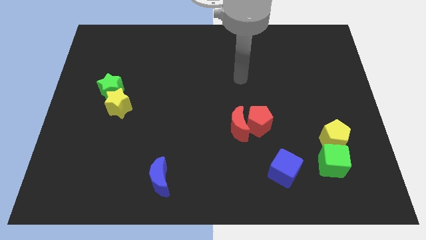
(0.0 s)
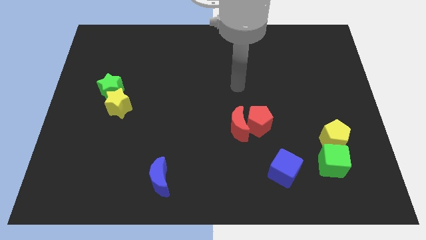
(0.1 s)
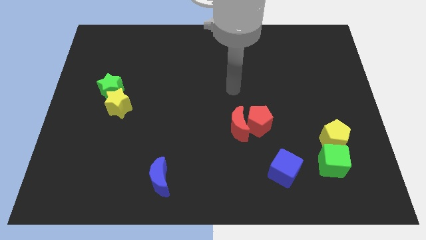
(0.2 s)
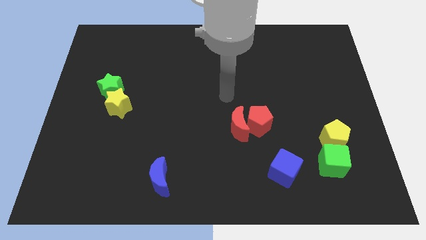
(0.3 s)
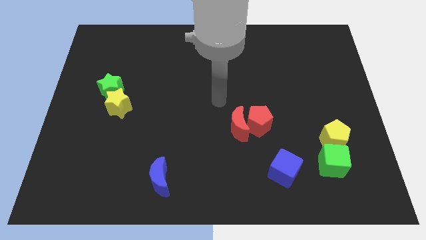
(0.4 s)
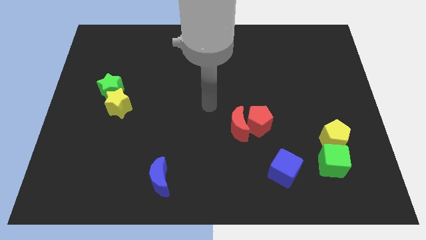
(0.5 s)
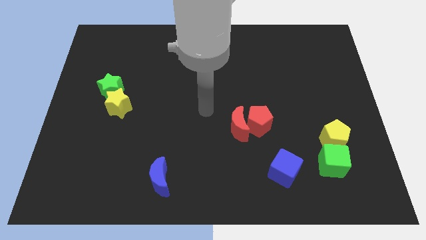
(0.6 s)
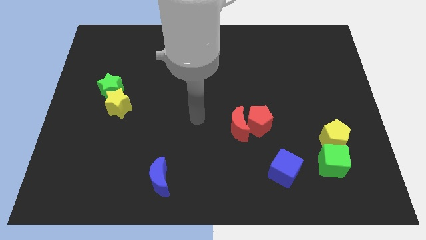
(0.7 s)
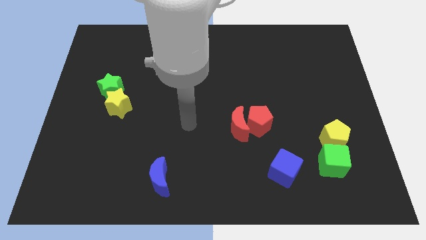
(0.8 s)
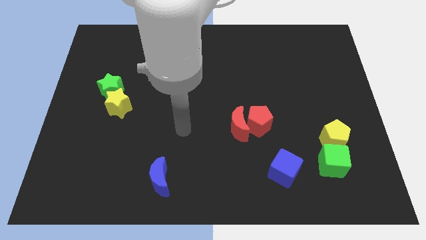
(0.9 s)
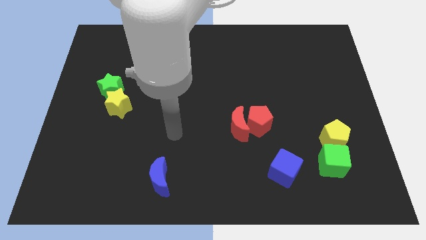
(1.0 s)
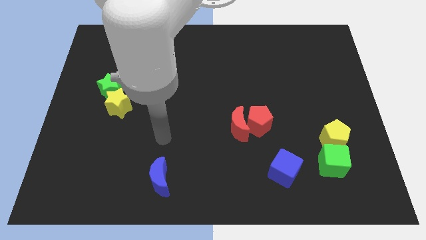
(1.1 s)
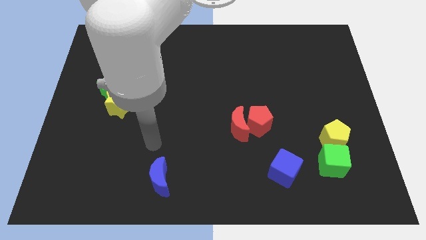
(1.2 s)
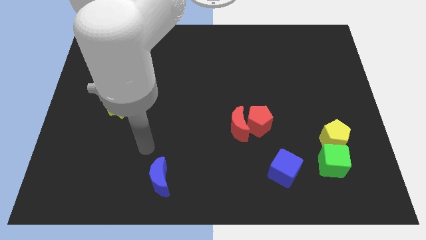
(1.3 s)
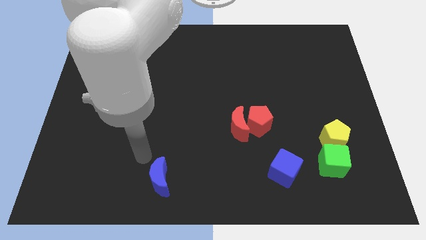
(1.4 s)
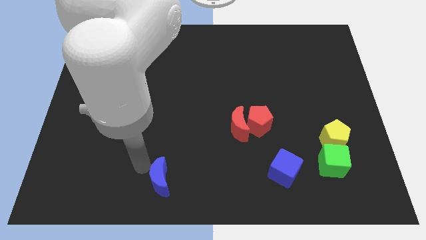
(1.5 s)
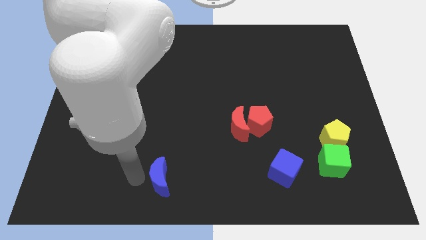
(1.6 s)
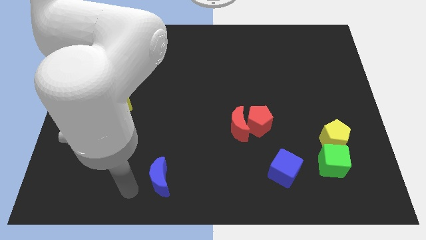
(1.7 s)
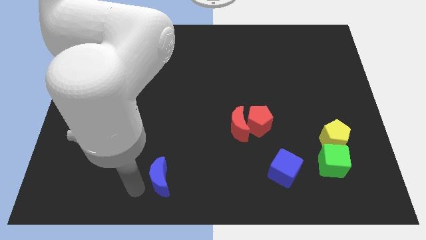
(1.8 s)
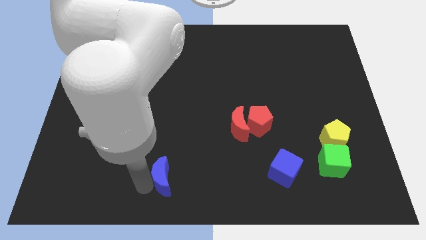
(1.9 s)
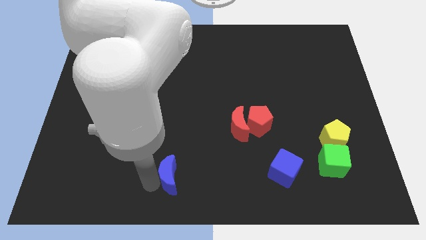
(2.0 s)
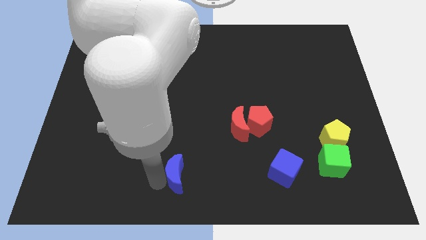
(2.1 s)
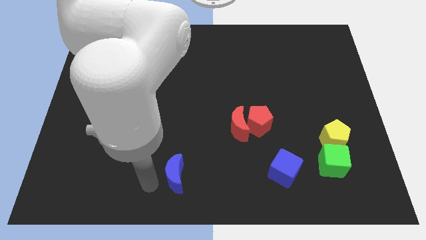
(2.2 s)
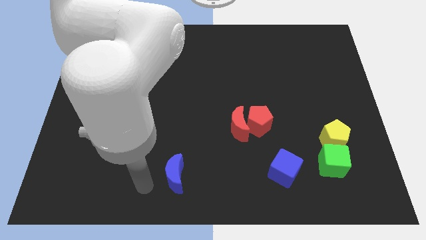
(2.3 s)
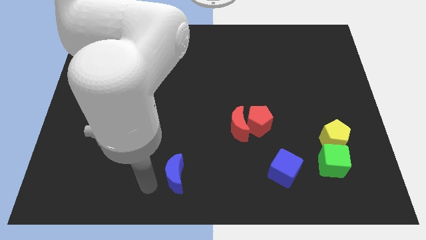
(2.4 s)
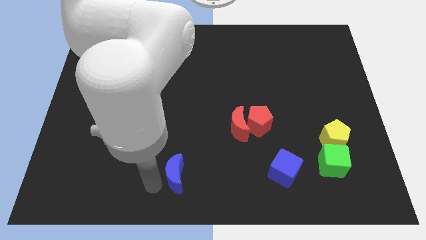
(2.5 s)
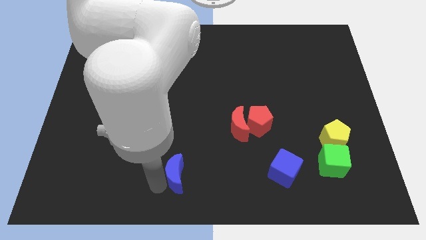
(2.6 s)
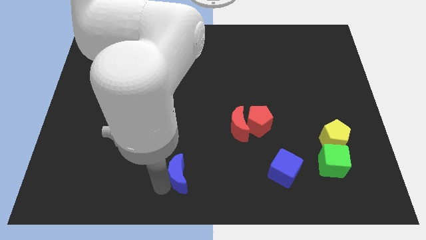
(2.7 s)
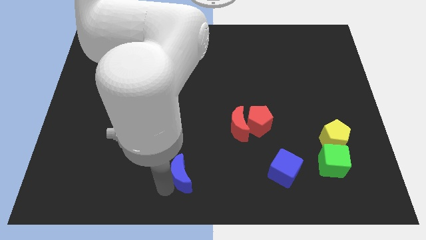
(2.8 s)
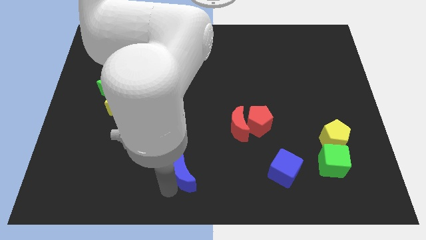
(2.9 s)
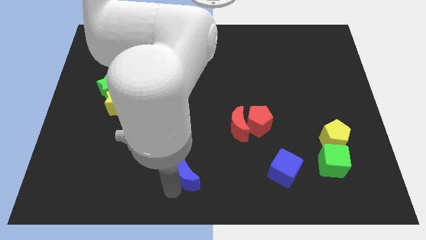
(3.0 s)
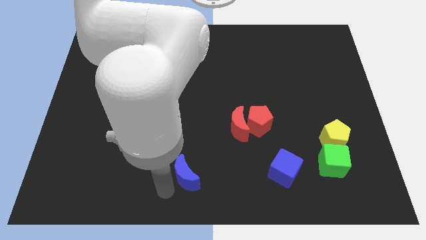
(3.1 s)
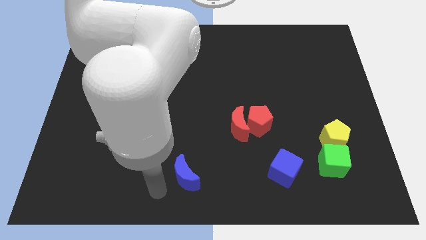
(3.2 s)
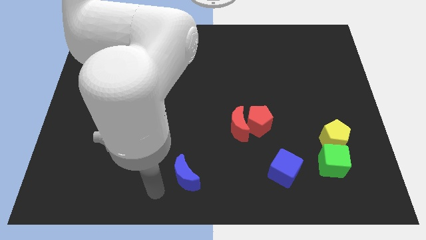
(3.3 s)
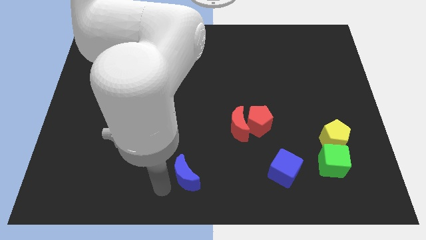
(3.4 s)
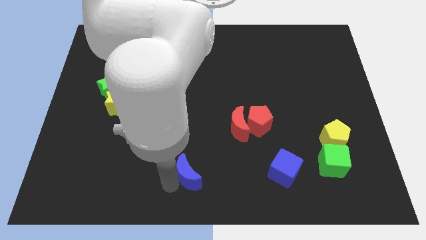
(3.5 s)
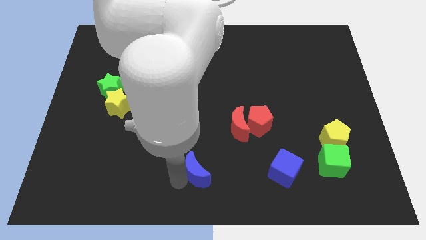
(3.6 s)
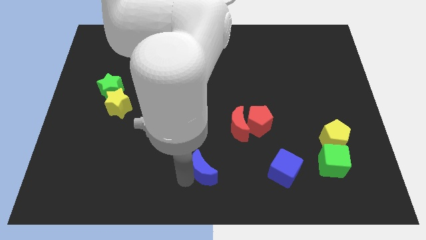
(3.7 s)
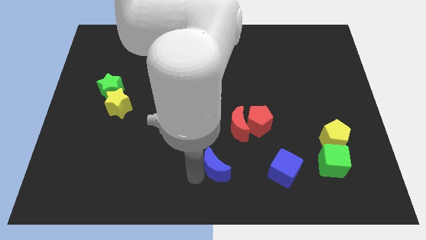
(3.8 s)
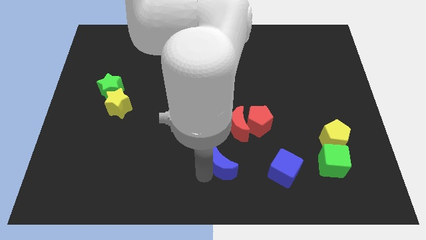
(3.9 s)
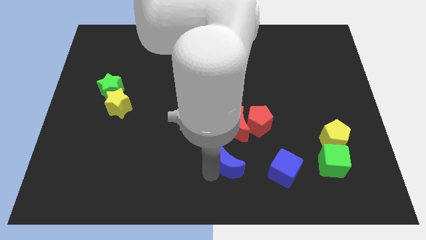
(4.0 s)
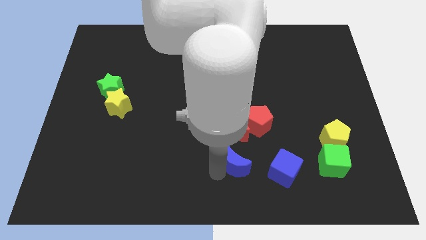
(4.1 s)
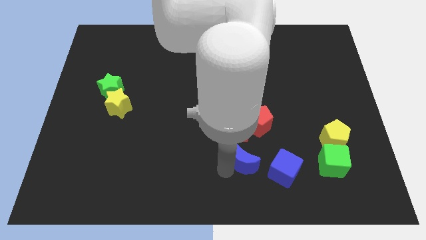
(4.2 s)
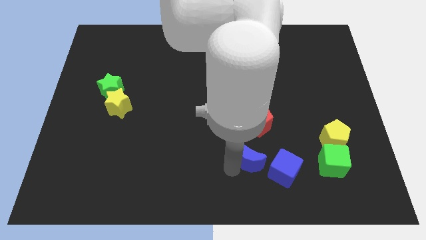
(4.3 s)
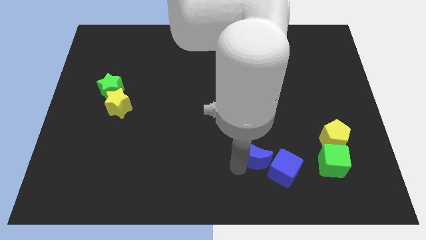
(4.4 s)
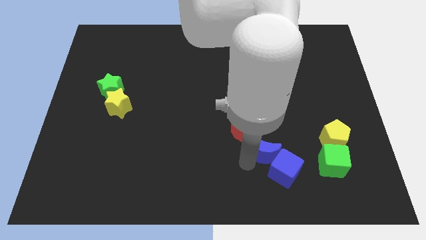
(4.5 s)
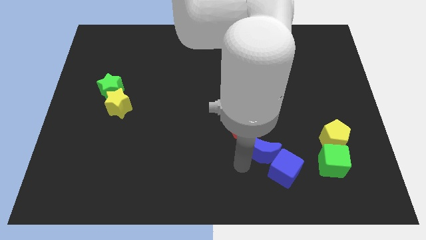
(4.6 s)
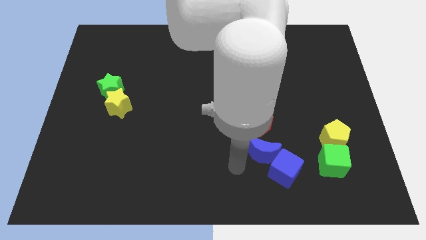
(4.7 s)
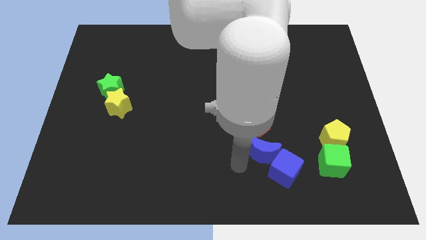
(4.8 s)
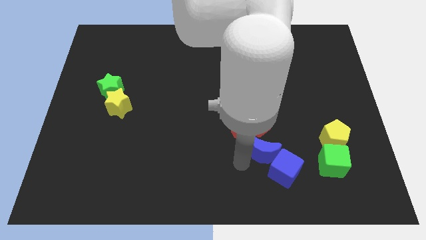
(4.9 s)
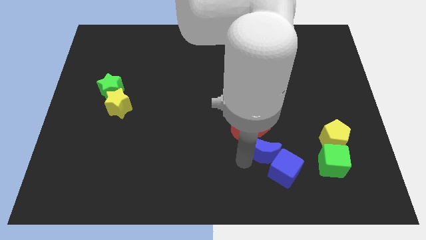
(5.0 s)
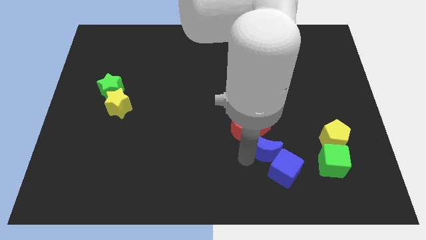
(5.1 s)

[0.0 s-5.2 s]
push the blue moon to the bottom right side of the red pentagon

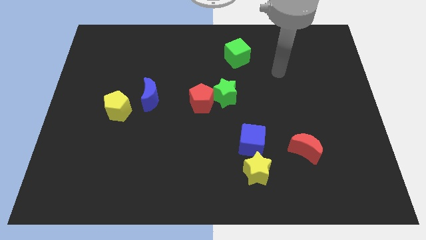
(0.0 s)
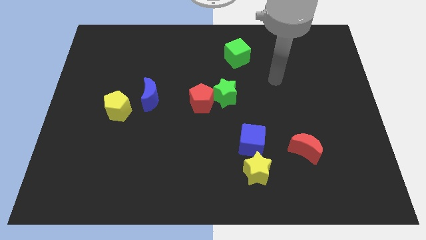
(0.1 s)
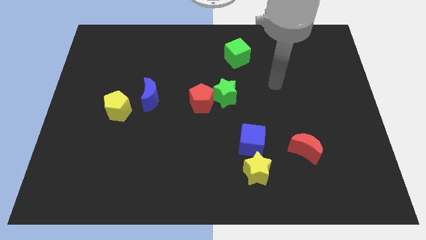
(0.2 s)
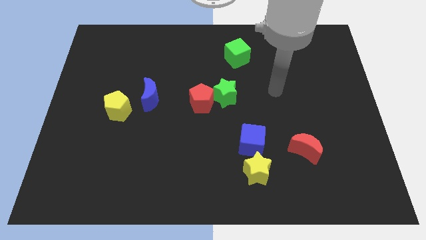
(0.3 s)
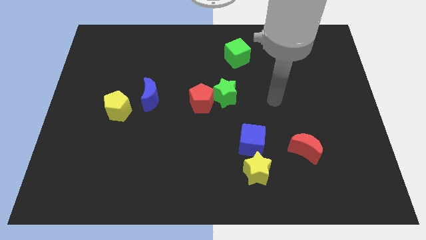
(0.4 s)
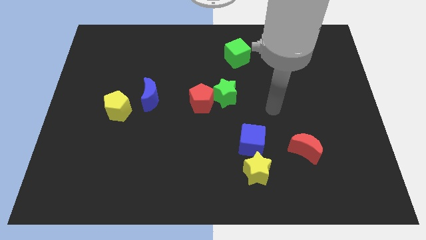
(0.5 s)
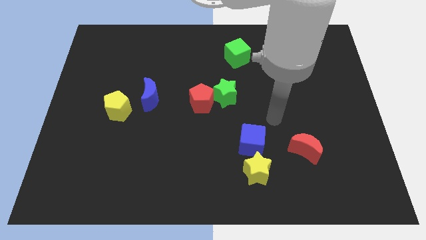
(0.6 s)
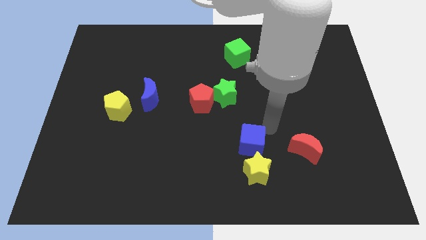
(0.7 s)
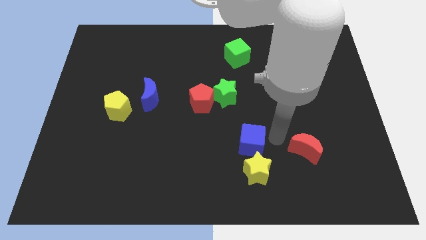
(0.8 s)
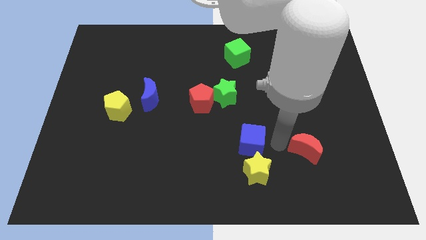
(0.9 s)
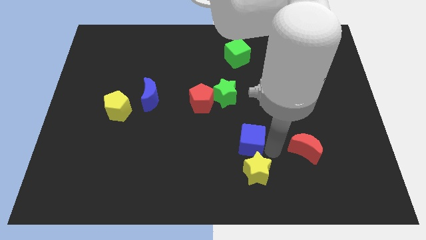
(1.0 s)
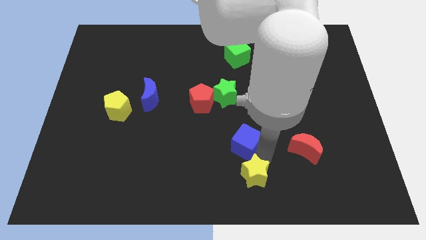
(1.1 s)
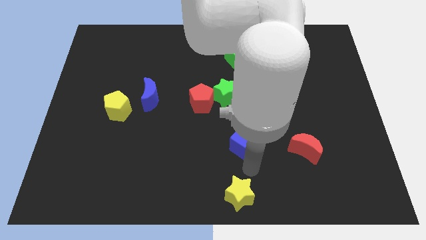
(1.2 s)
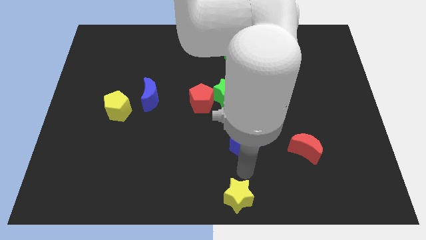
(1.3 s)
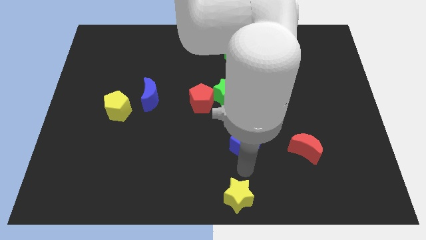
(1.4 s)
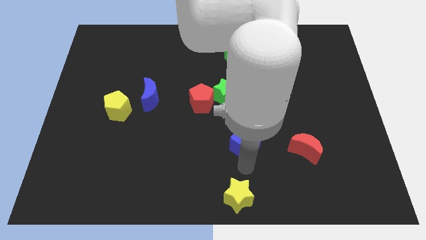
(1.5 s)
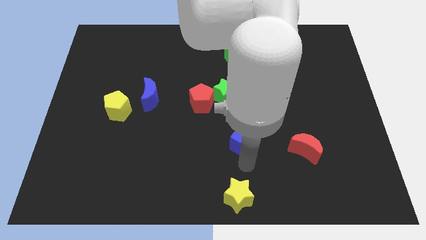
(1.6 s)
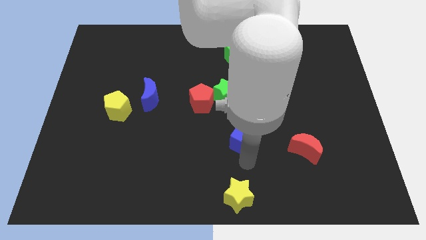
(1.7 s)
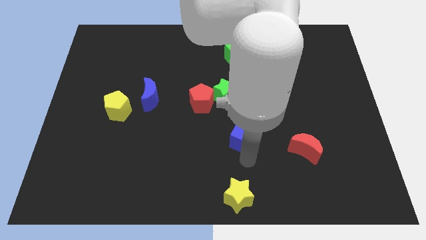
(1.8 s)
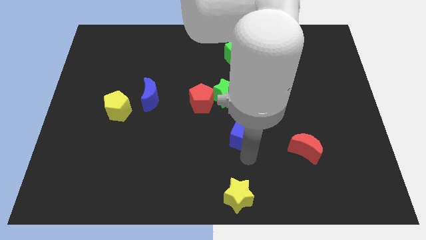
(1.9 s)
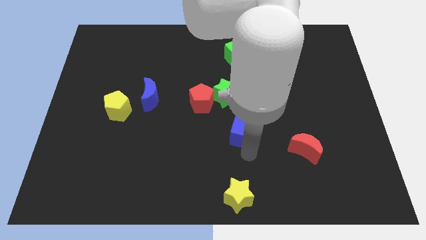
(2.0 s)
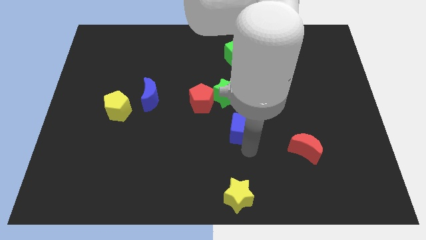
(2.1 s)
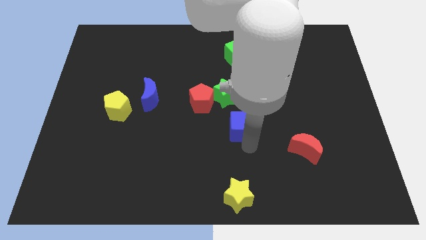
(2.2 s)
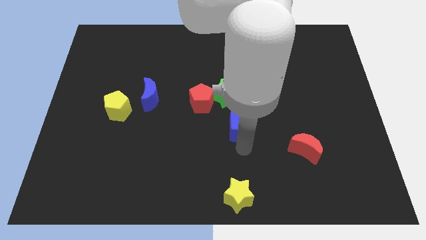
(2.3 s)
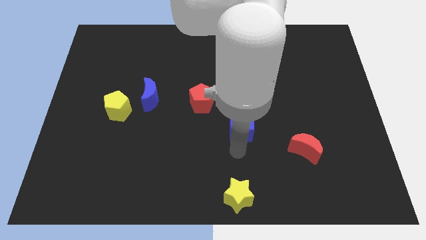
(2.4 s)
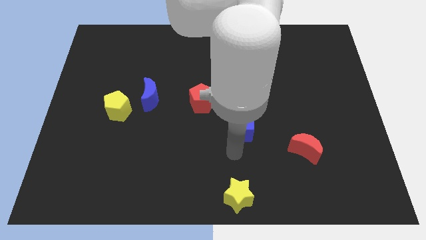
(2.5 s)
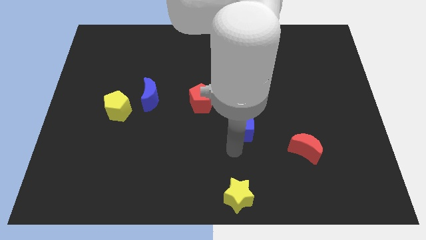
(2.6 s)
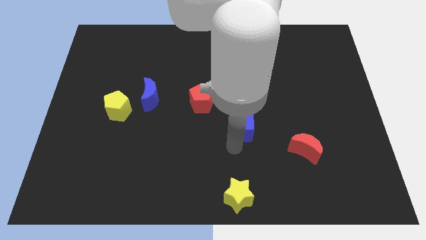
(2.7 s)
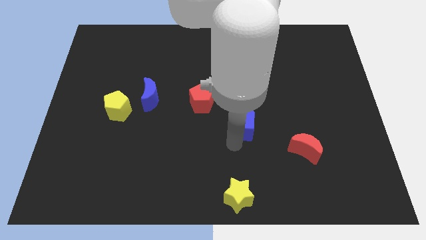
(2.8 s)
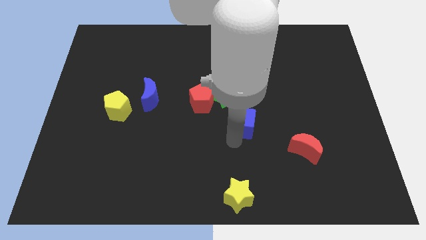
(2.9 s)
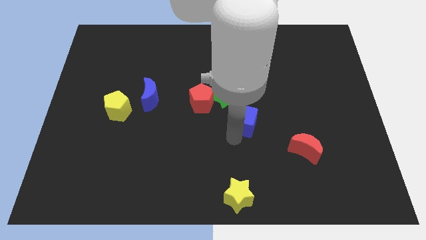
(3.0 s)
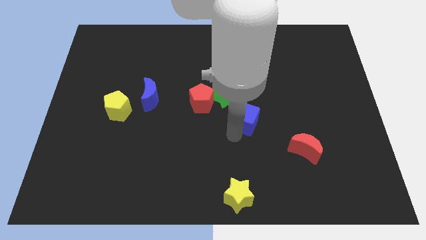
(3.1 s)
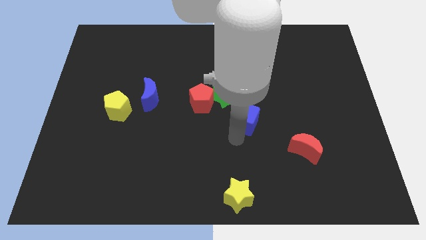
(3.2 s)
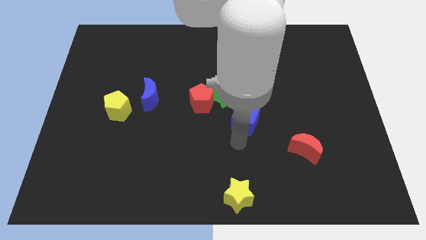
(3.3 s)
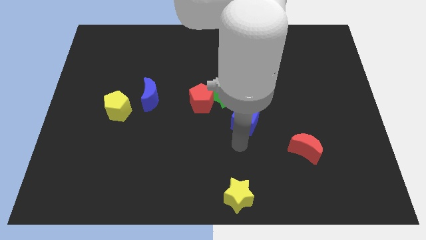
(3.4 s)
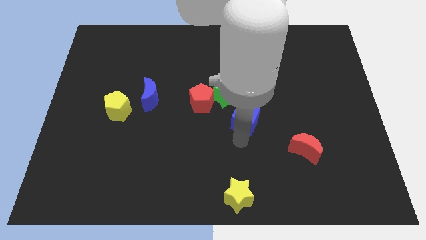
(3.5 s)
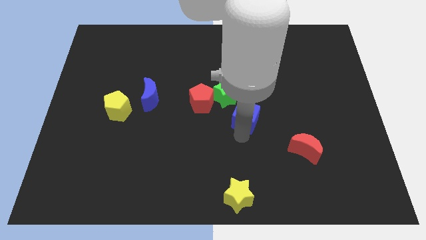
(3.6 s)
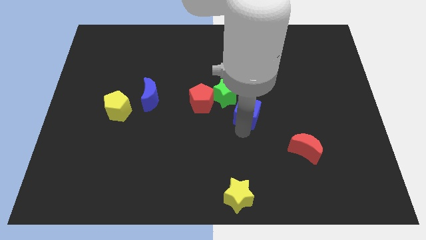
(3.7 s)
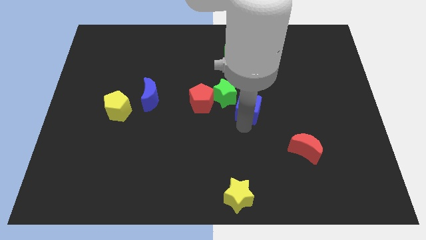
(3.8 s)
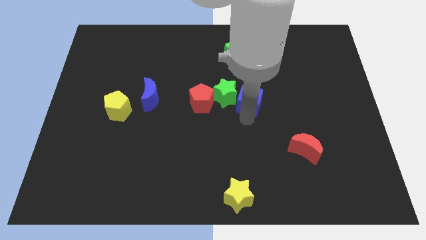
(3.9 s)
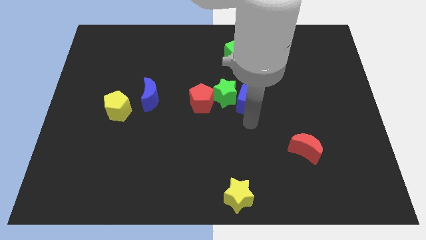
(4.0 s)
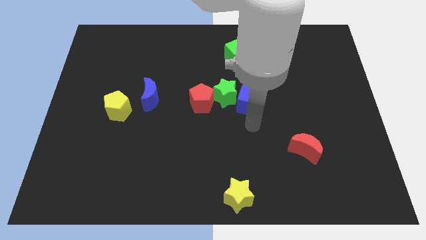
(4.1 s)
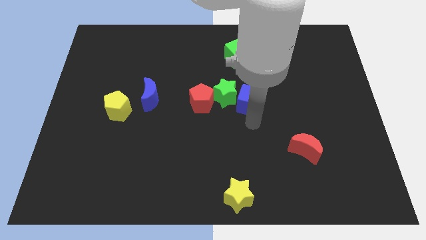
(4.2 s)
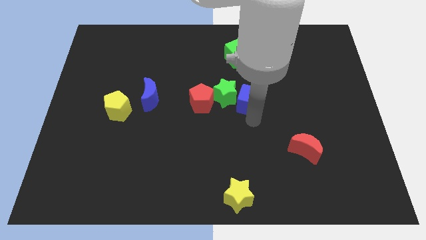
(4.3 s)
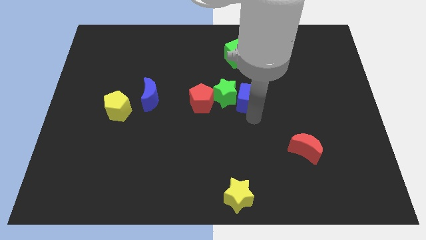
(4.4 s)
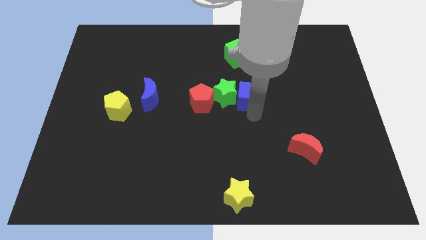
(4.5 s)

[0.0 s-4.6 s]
move the blue cube to the top right side of the green star
